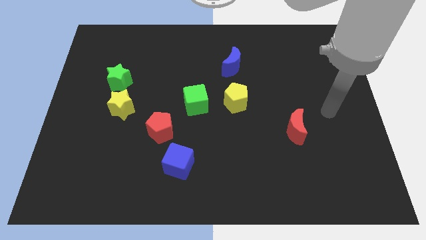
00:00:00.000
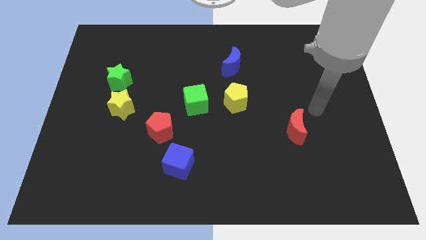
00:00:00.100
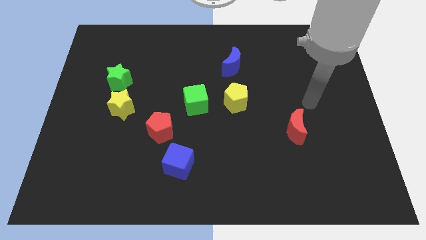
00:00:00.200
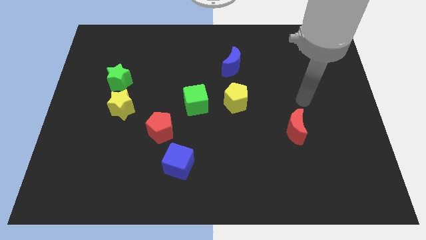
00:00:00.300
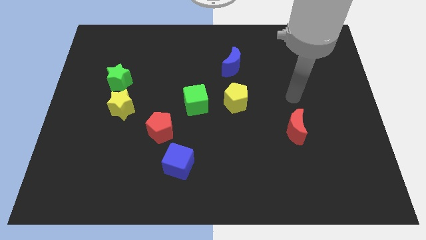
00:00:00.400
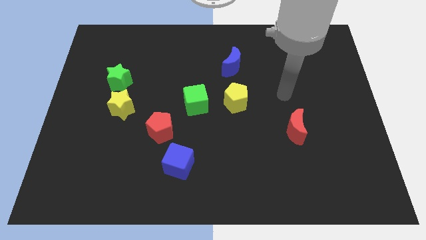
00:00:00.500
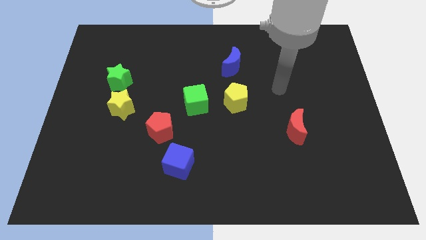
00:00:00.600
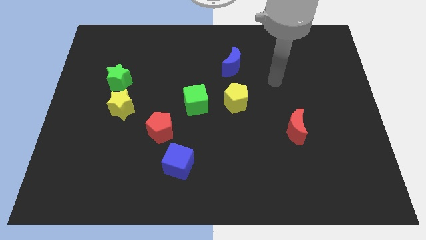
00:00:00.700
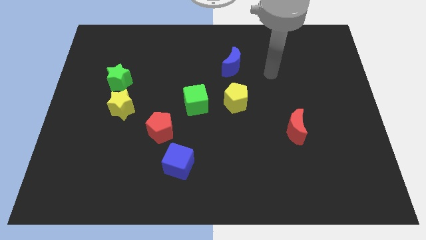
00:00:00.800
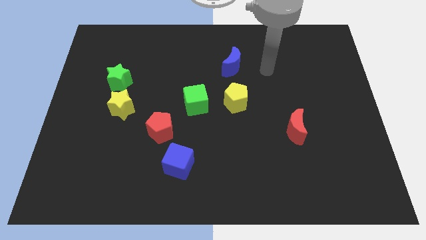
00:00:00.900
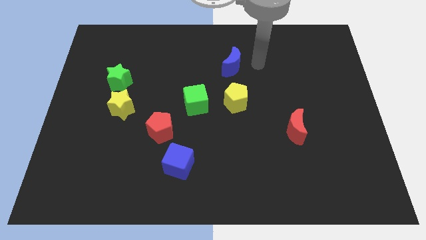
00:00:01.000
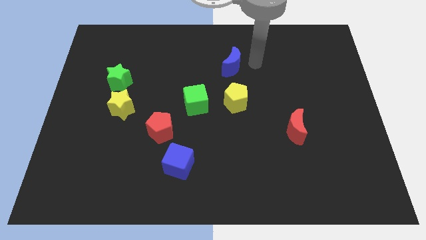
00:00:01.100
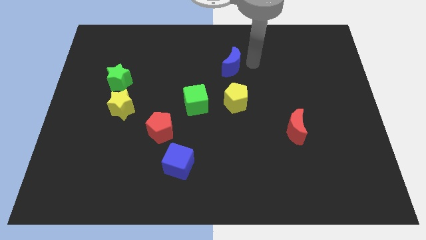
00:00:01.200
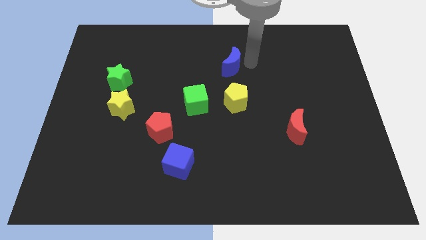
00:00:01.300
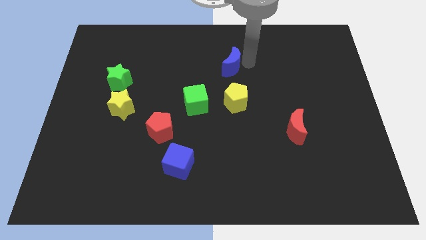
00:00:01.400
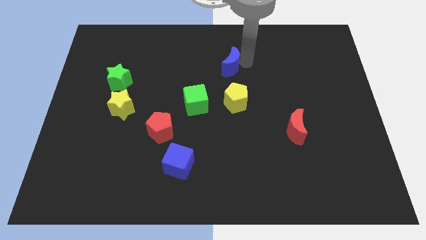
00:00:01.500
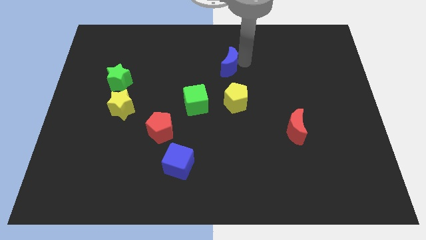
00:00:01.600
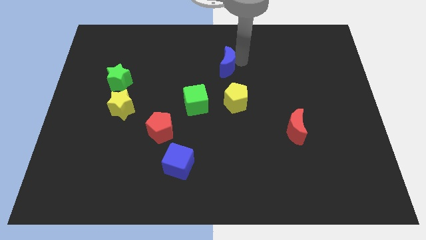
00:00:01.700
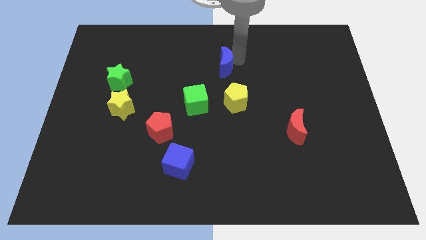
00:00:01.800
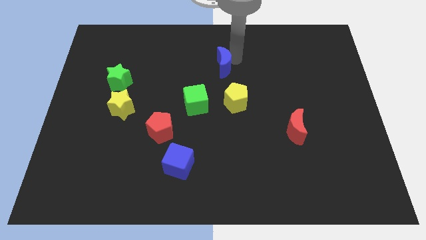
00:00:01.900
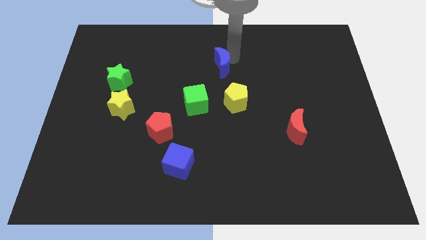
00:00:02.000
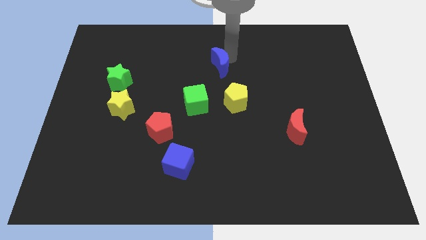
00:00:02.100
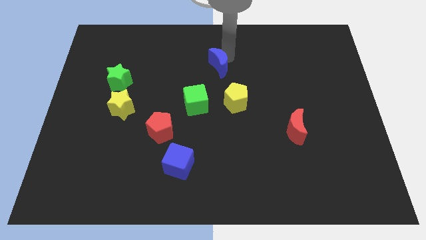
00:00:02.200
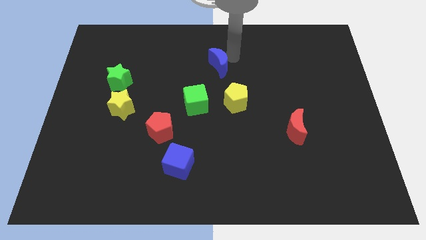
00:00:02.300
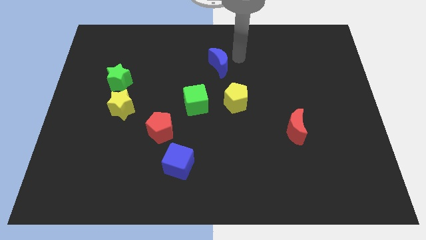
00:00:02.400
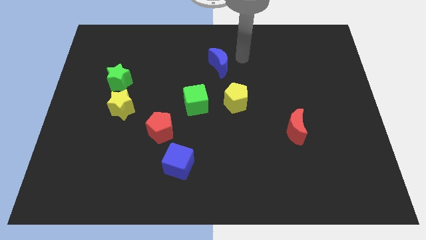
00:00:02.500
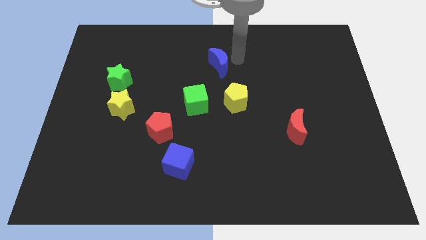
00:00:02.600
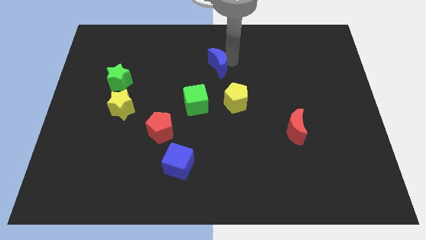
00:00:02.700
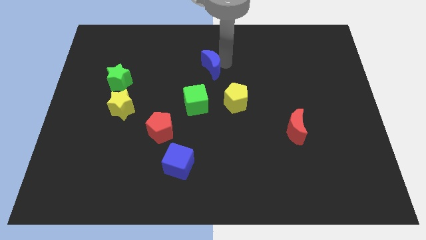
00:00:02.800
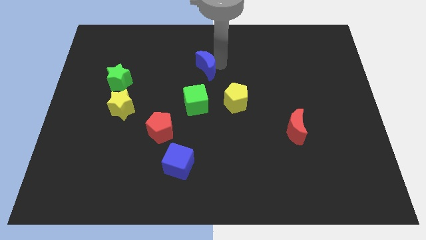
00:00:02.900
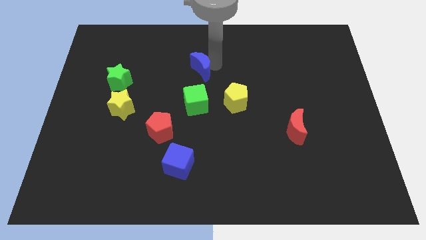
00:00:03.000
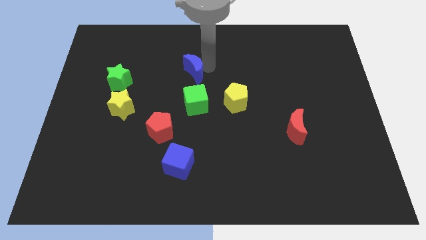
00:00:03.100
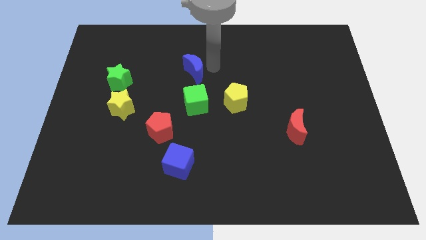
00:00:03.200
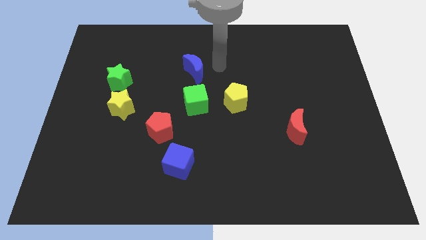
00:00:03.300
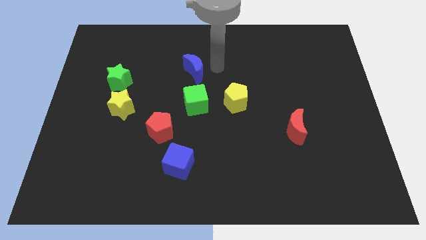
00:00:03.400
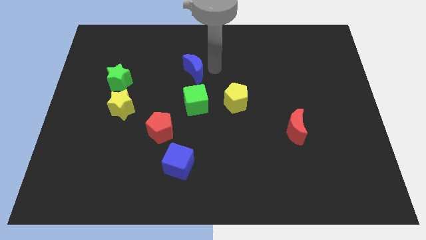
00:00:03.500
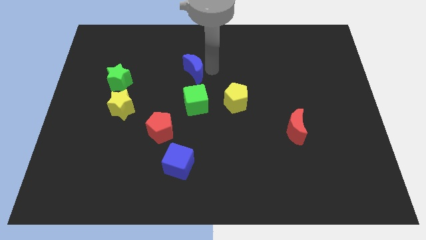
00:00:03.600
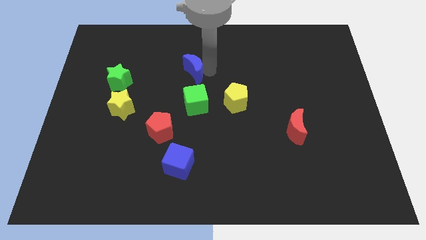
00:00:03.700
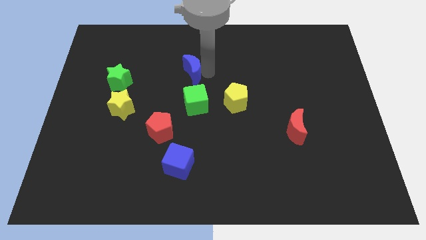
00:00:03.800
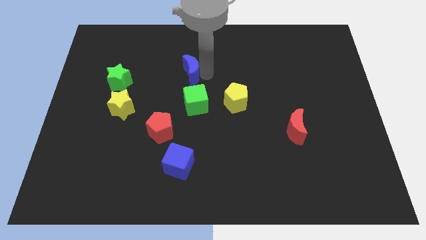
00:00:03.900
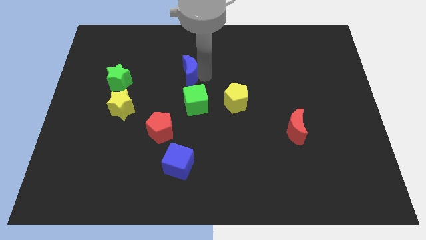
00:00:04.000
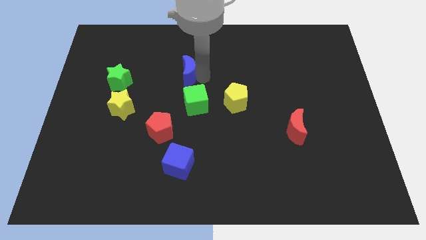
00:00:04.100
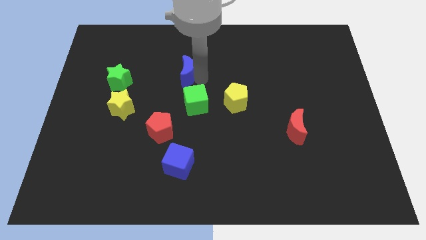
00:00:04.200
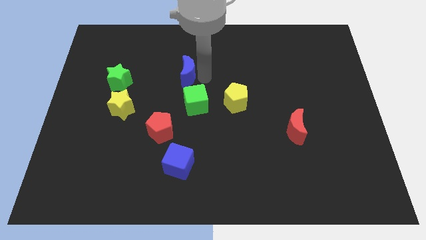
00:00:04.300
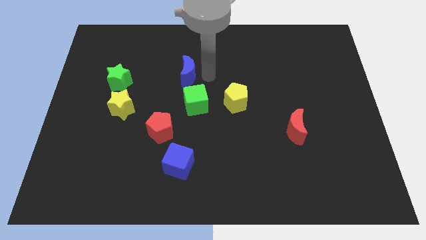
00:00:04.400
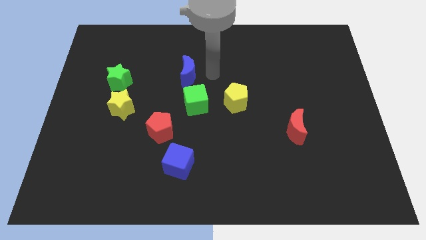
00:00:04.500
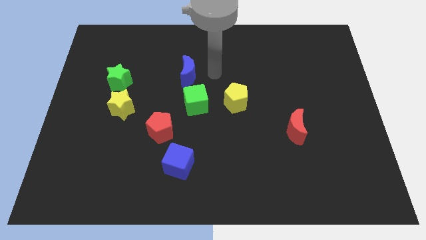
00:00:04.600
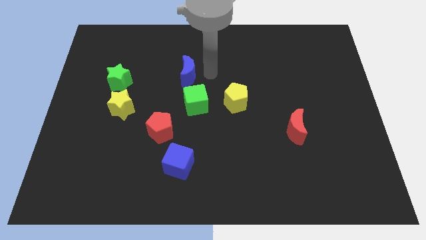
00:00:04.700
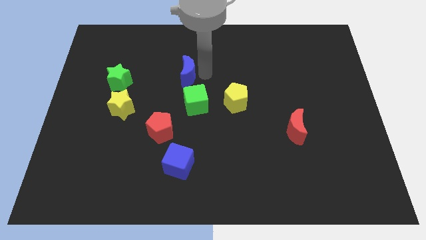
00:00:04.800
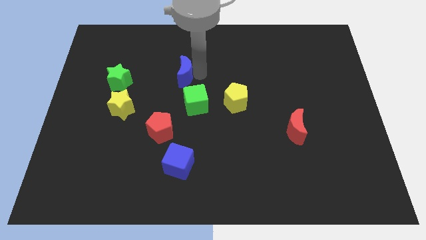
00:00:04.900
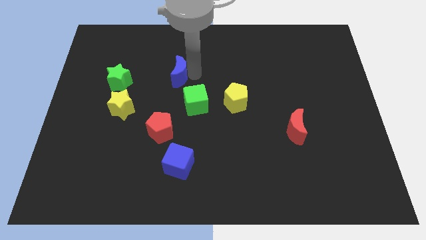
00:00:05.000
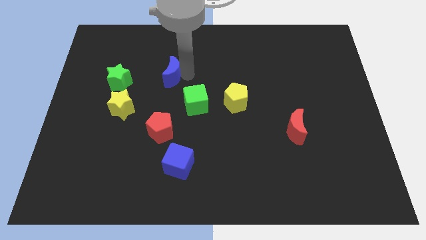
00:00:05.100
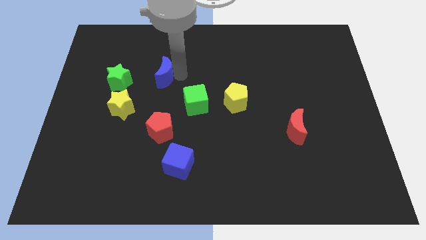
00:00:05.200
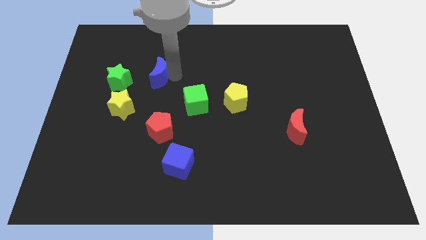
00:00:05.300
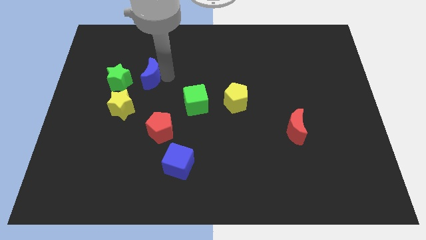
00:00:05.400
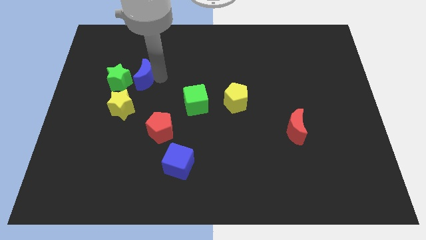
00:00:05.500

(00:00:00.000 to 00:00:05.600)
move the blue moon to the top of the yellow star

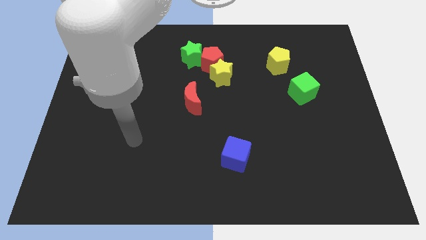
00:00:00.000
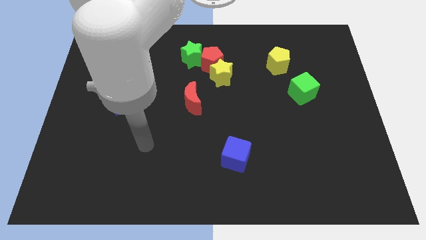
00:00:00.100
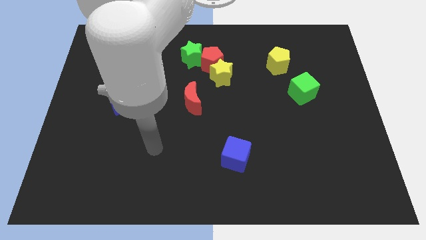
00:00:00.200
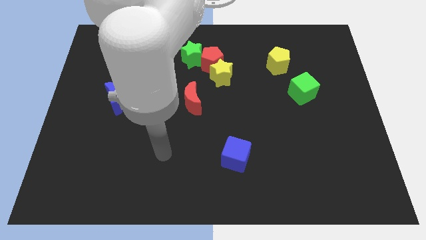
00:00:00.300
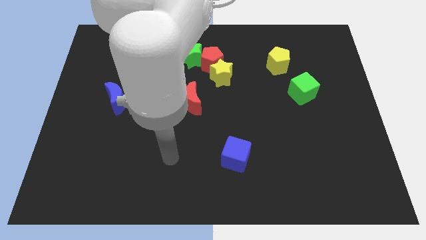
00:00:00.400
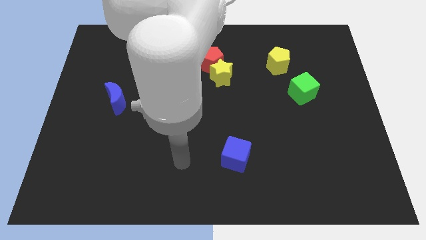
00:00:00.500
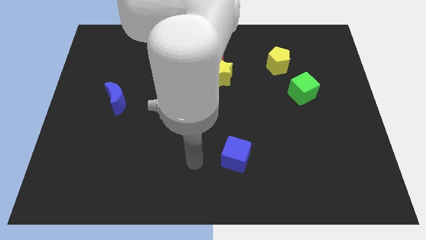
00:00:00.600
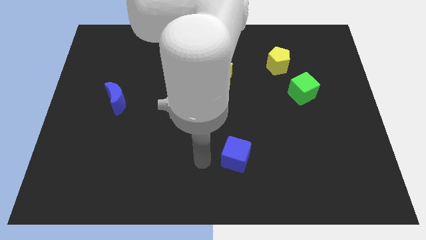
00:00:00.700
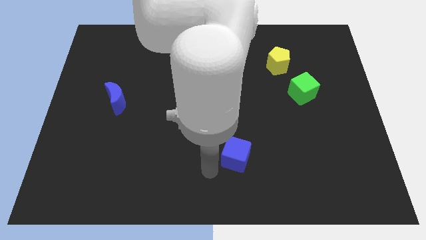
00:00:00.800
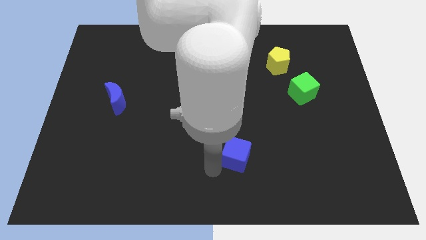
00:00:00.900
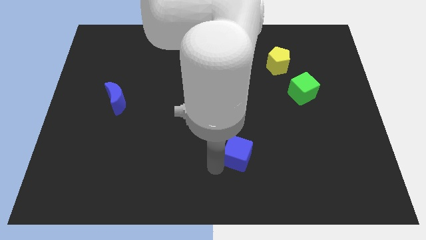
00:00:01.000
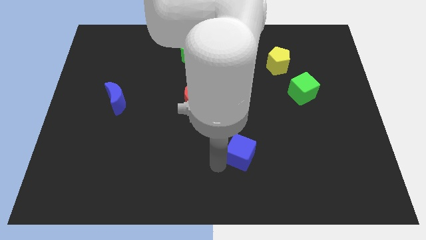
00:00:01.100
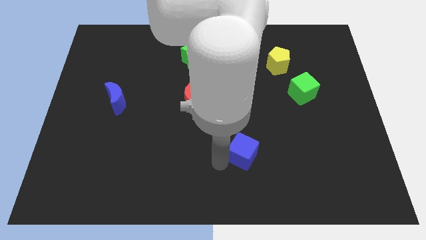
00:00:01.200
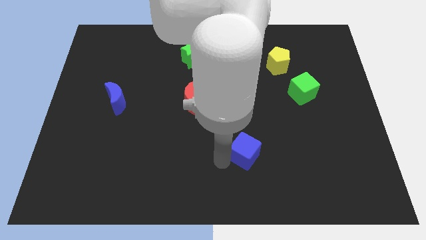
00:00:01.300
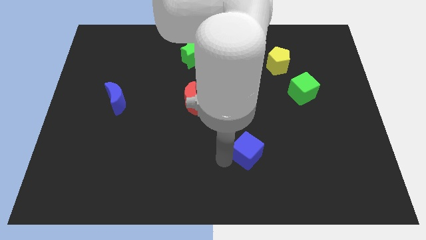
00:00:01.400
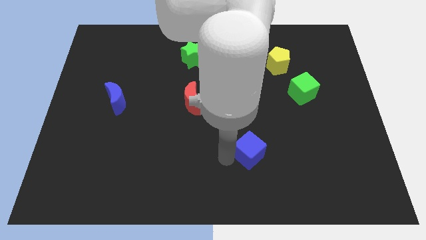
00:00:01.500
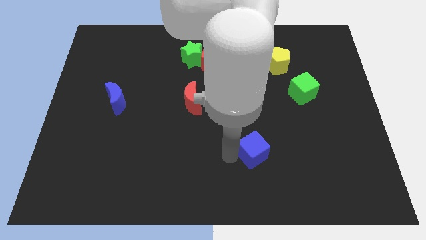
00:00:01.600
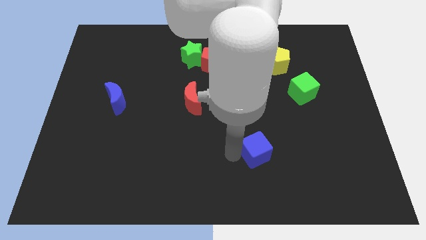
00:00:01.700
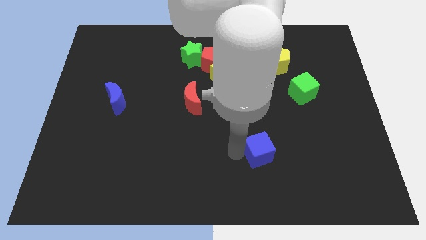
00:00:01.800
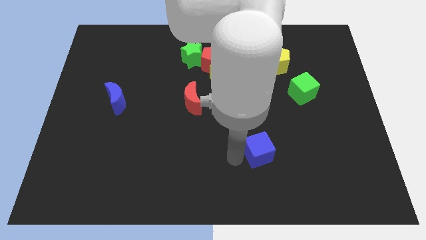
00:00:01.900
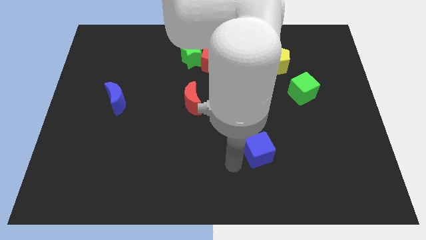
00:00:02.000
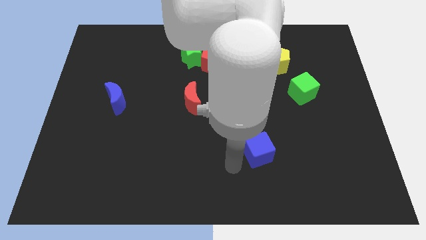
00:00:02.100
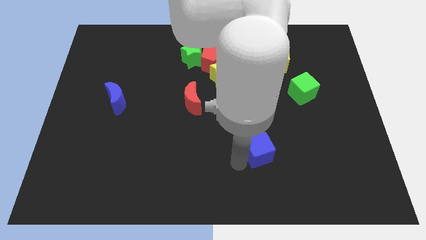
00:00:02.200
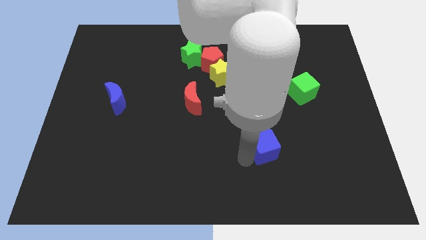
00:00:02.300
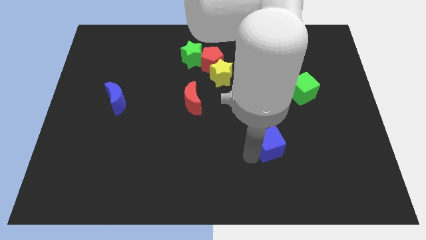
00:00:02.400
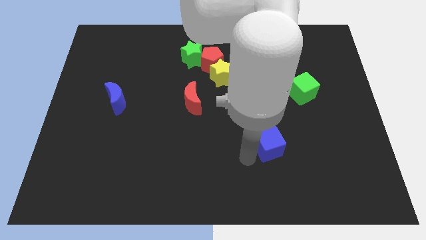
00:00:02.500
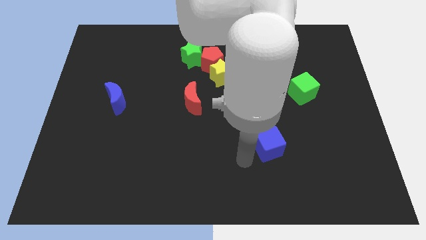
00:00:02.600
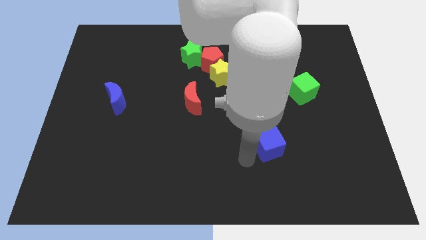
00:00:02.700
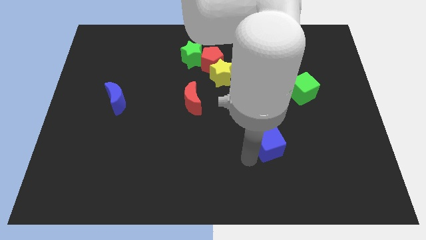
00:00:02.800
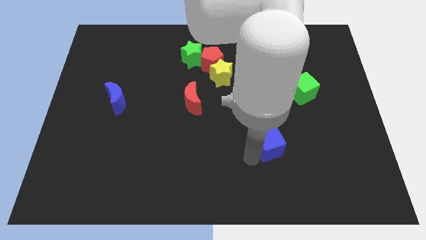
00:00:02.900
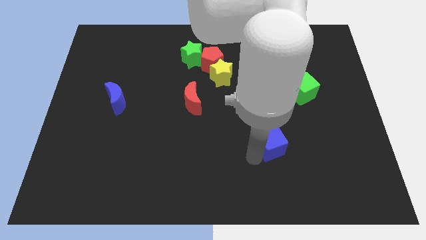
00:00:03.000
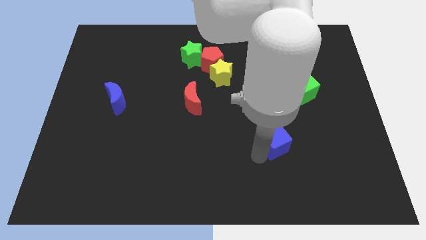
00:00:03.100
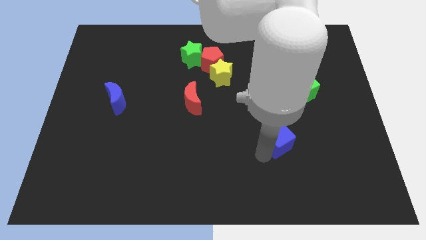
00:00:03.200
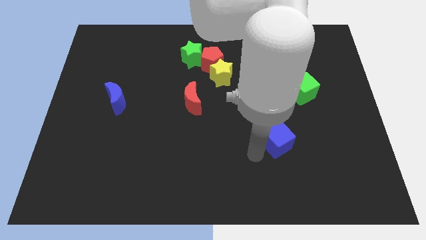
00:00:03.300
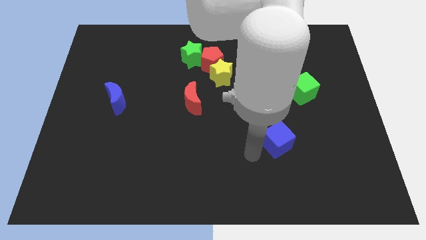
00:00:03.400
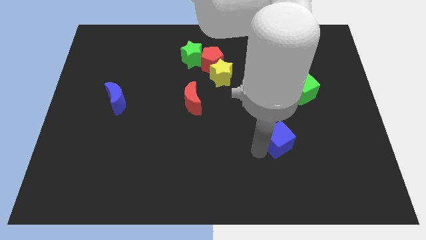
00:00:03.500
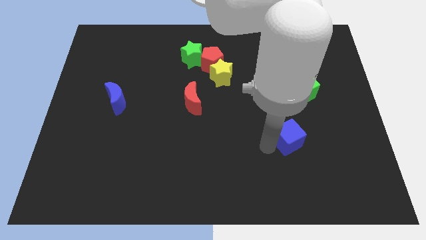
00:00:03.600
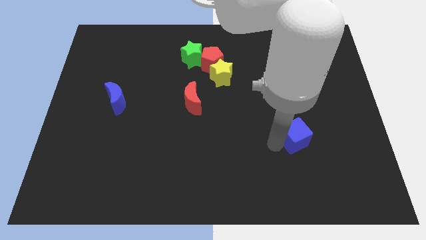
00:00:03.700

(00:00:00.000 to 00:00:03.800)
push the blue cube below the green cube
